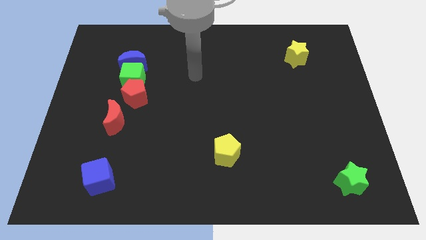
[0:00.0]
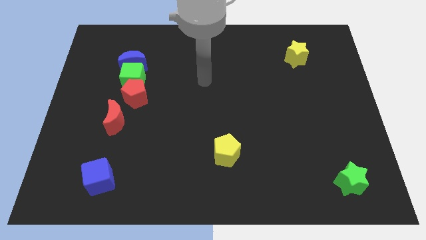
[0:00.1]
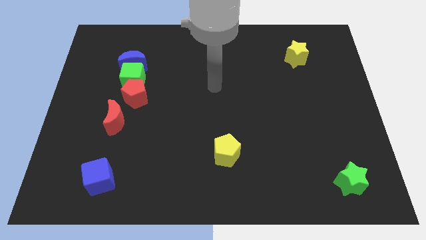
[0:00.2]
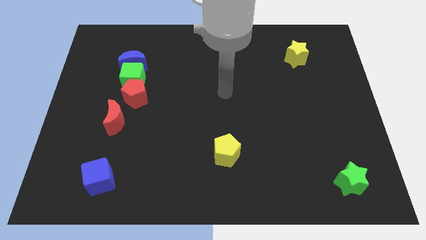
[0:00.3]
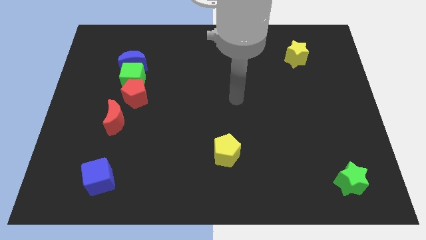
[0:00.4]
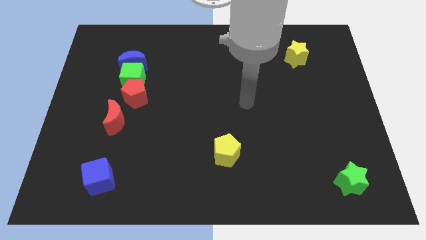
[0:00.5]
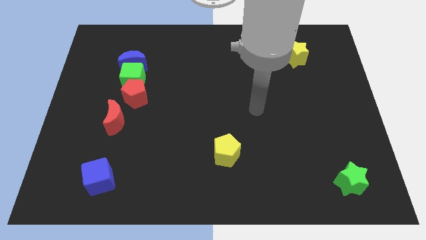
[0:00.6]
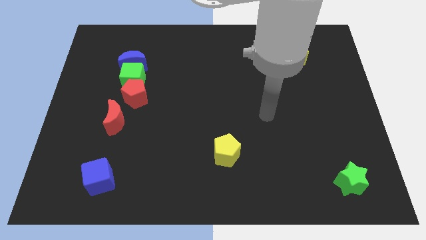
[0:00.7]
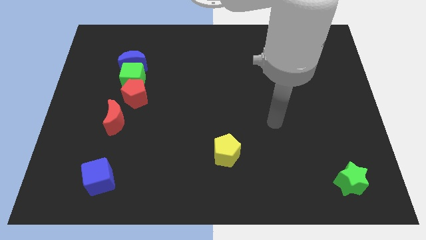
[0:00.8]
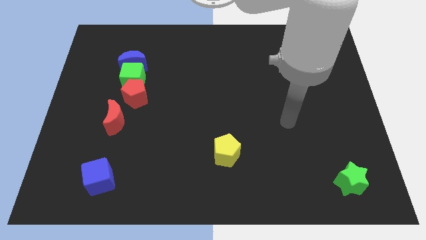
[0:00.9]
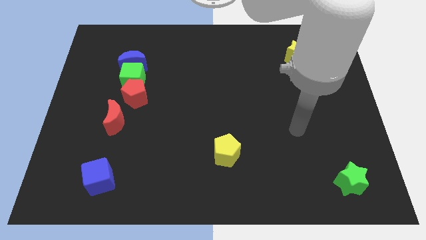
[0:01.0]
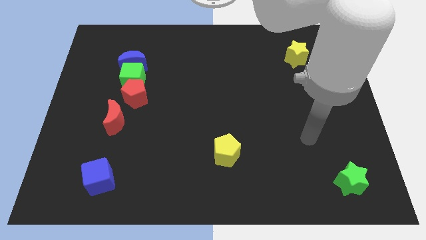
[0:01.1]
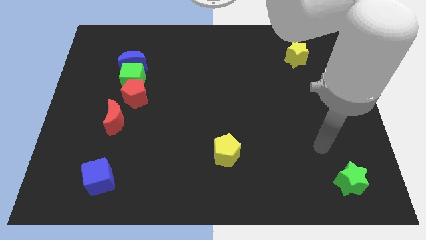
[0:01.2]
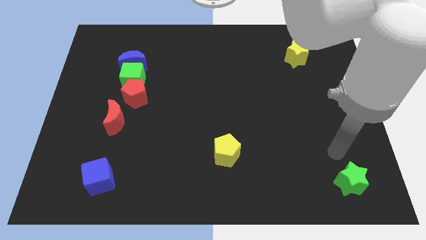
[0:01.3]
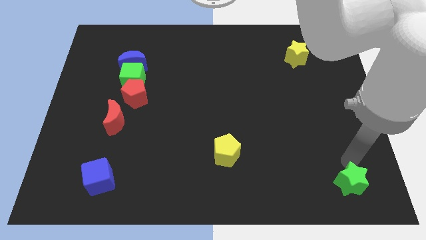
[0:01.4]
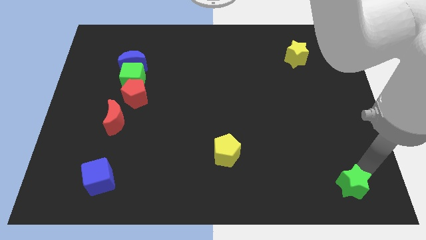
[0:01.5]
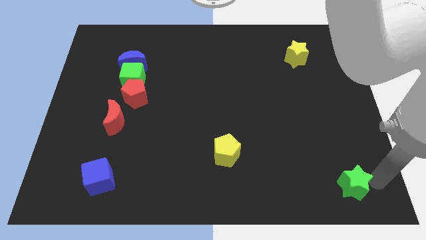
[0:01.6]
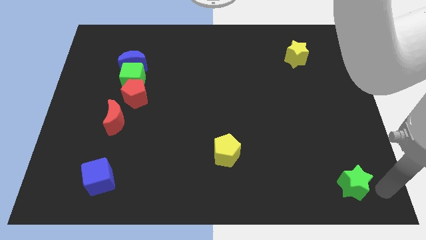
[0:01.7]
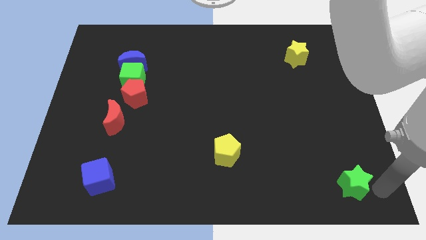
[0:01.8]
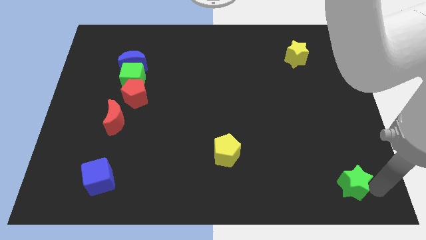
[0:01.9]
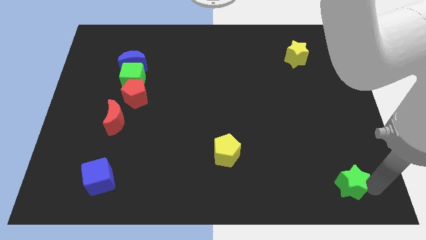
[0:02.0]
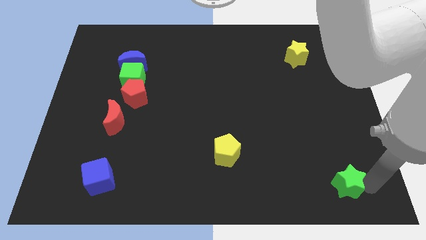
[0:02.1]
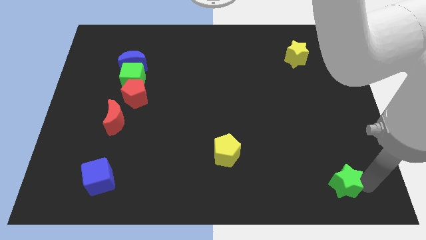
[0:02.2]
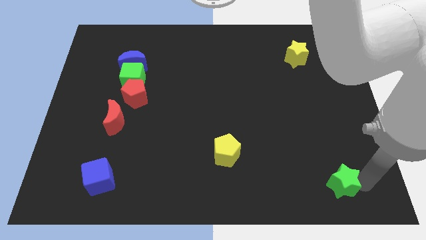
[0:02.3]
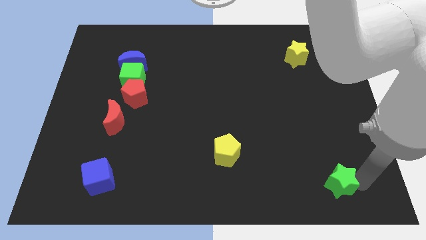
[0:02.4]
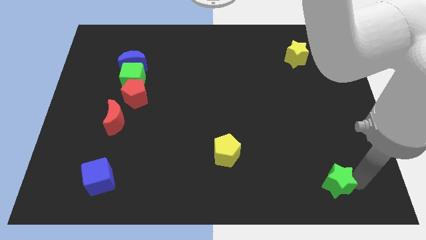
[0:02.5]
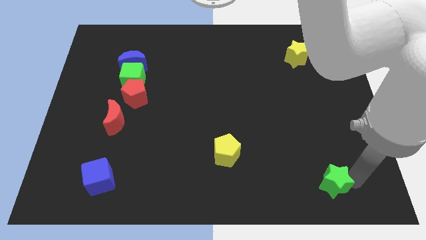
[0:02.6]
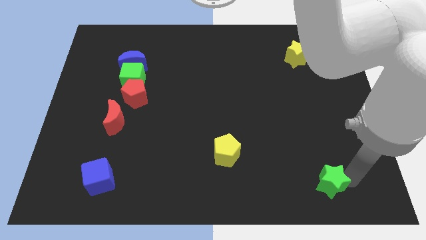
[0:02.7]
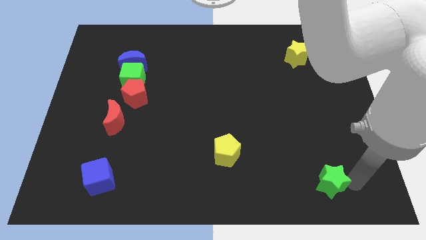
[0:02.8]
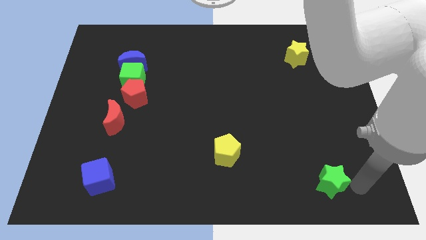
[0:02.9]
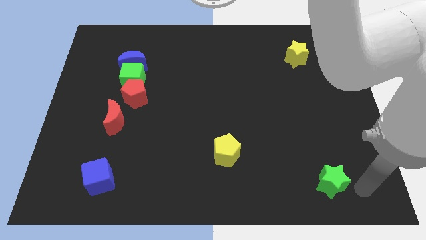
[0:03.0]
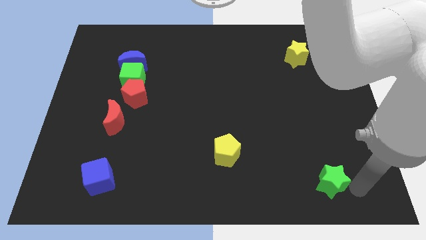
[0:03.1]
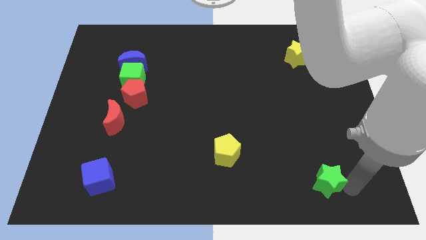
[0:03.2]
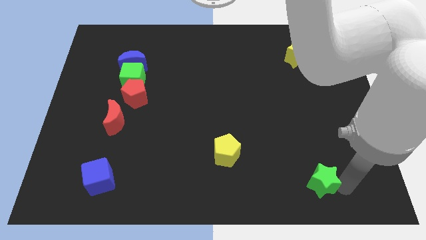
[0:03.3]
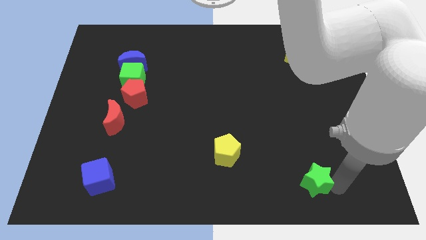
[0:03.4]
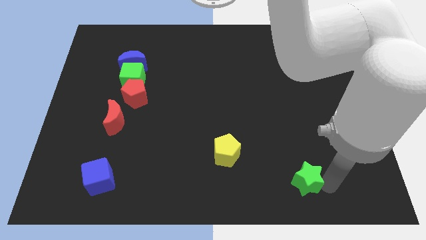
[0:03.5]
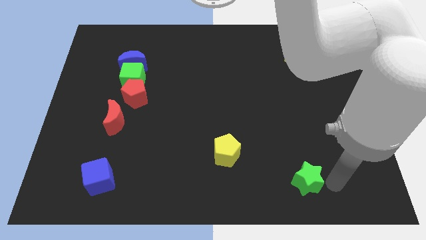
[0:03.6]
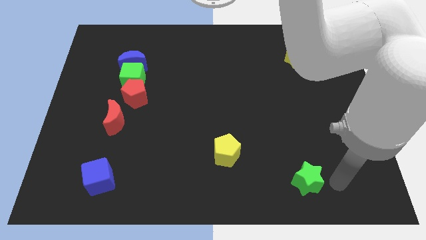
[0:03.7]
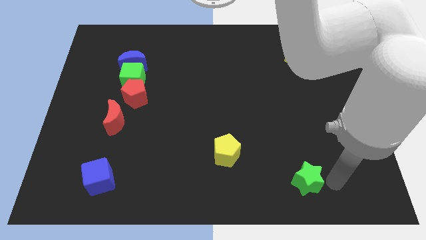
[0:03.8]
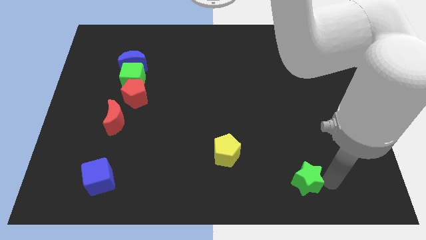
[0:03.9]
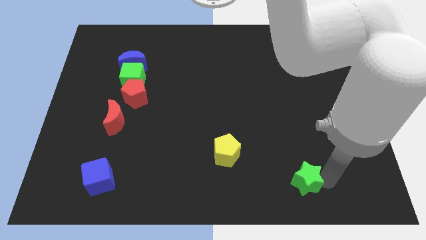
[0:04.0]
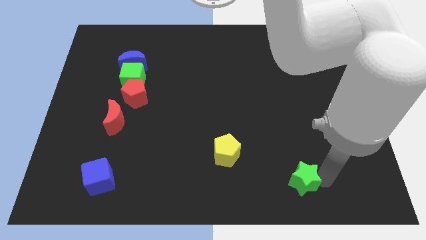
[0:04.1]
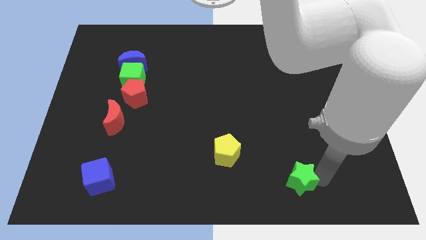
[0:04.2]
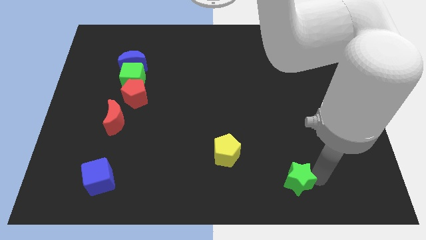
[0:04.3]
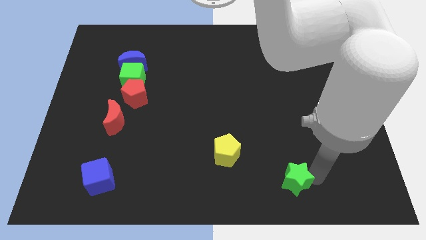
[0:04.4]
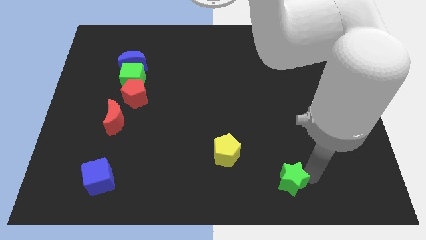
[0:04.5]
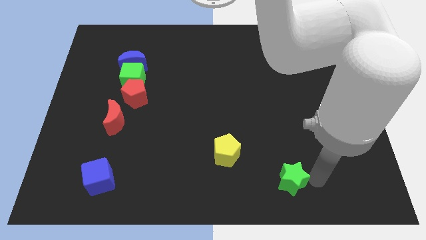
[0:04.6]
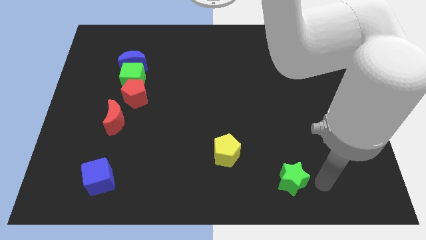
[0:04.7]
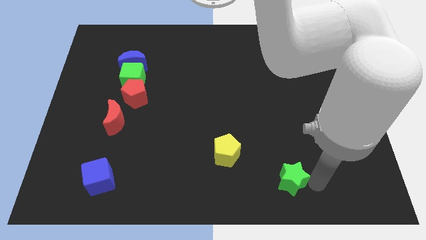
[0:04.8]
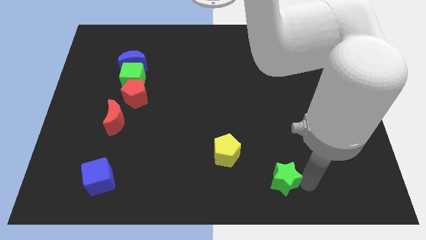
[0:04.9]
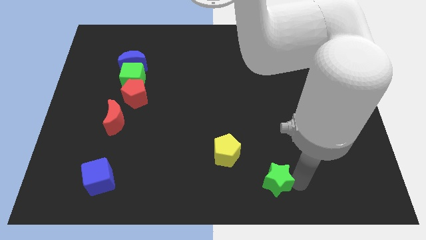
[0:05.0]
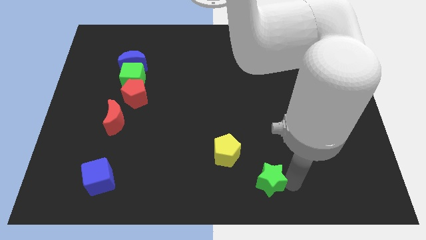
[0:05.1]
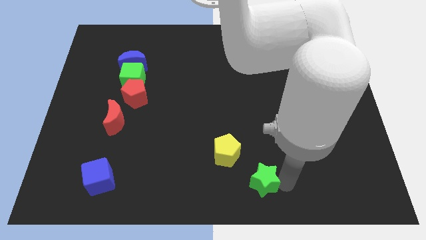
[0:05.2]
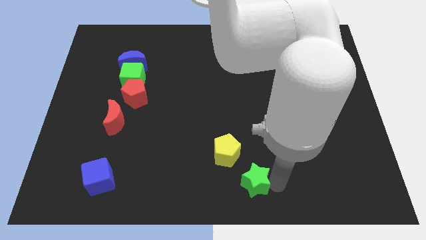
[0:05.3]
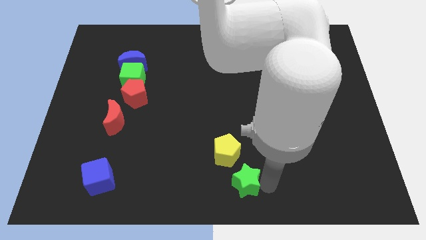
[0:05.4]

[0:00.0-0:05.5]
push the green star to the left

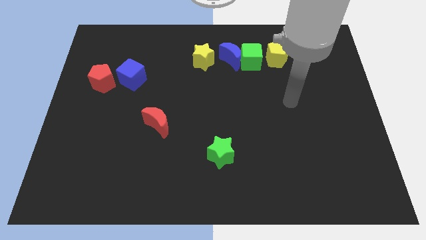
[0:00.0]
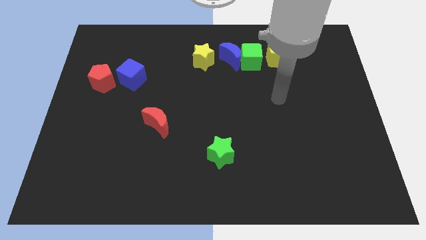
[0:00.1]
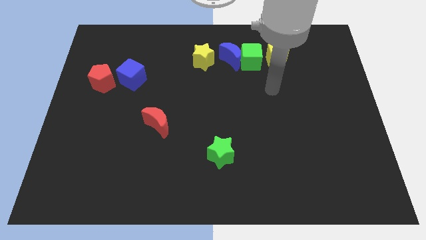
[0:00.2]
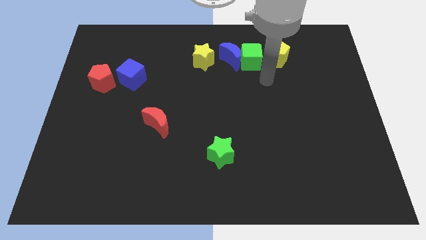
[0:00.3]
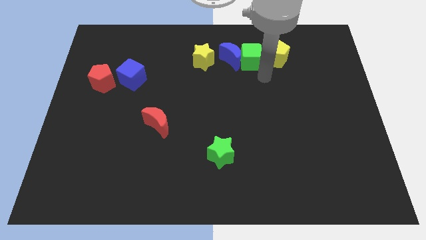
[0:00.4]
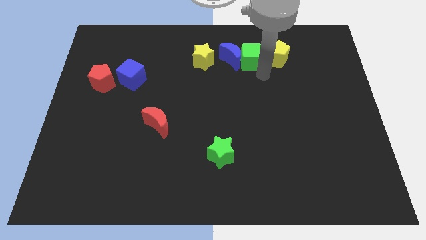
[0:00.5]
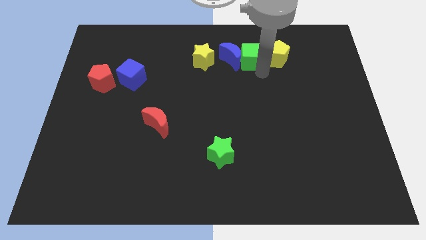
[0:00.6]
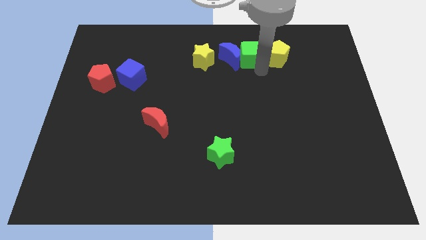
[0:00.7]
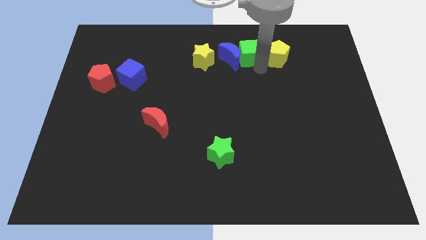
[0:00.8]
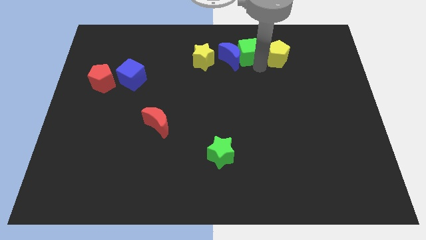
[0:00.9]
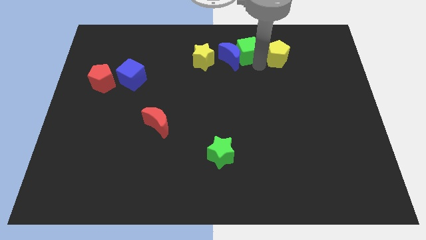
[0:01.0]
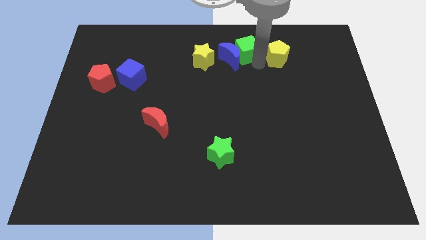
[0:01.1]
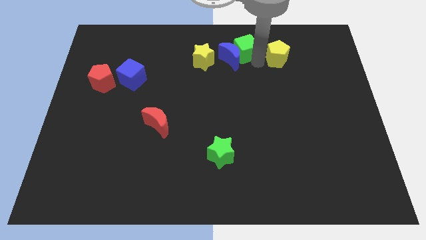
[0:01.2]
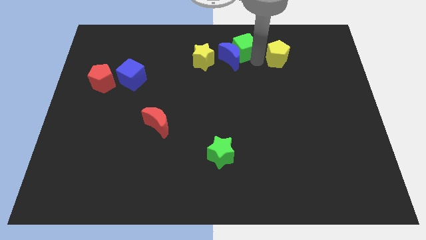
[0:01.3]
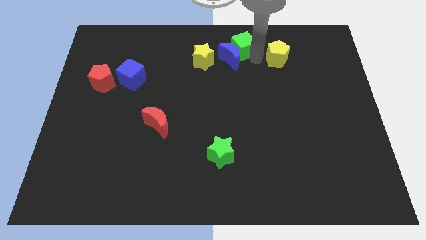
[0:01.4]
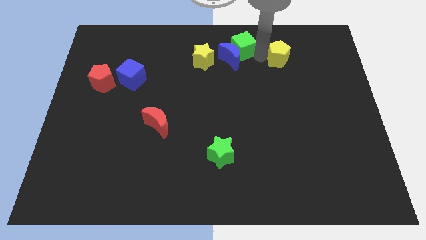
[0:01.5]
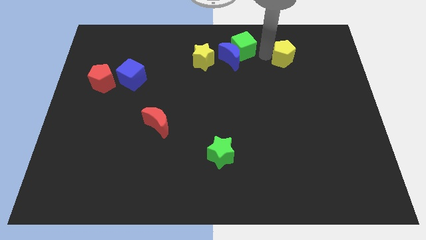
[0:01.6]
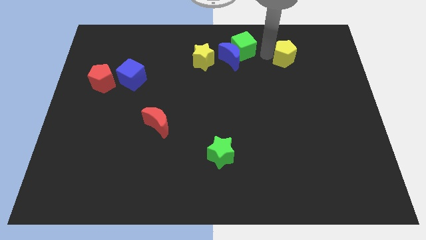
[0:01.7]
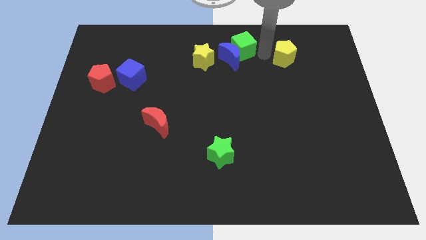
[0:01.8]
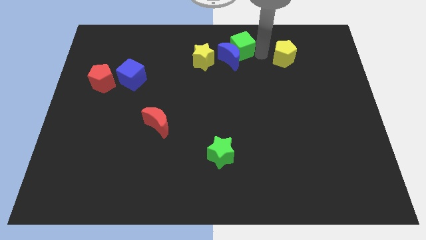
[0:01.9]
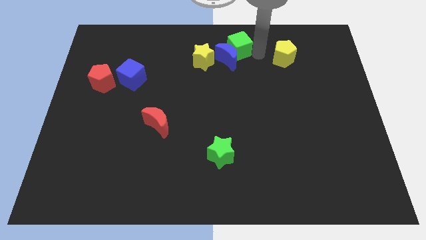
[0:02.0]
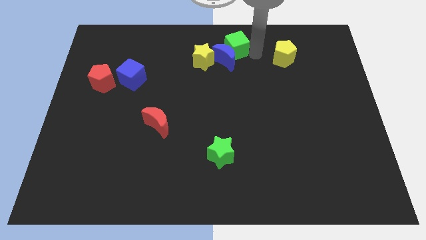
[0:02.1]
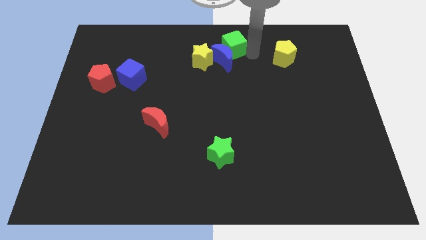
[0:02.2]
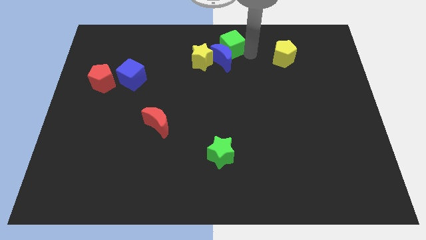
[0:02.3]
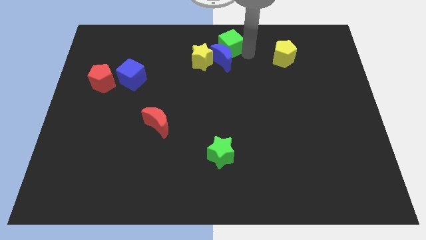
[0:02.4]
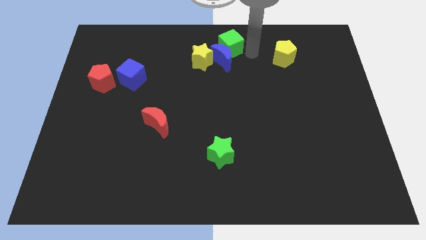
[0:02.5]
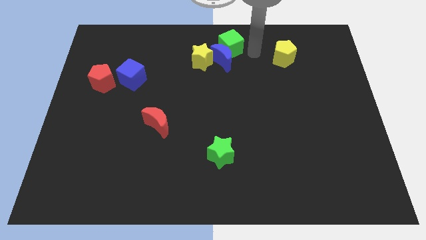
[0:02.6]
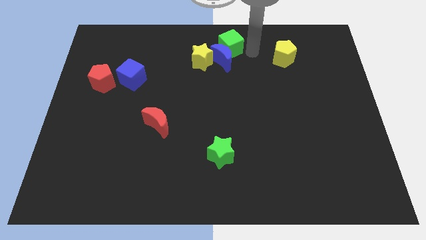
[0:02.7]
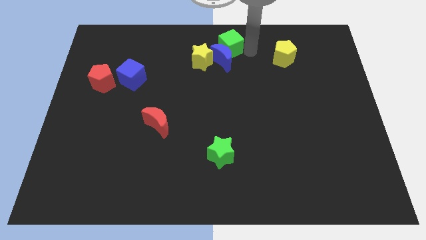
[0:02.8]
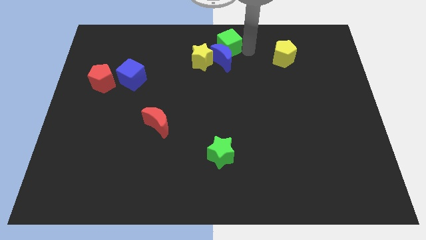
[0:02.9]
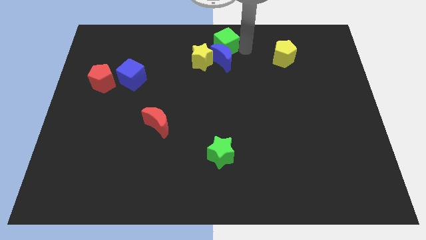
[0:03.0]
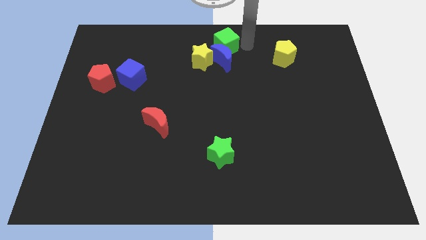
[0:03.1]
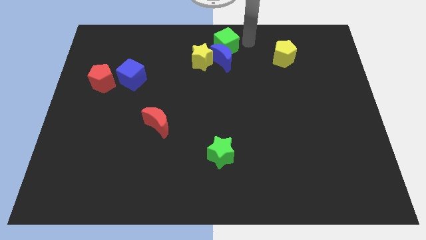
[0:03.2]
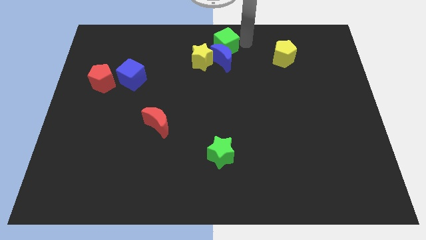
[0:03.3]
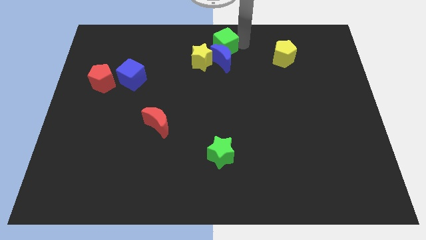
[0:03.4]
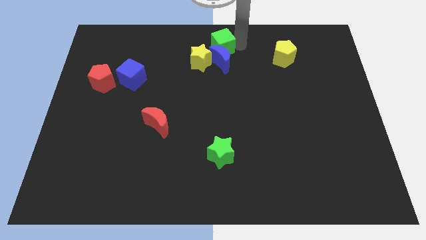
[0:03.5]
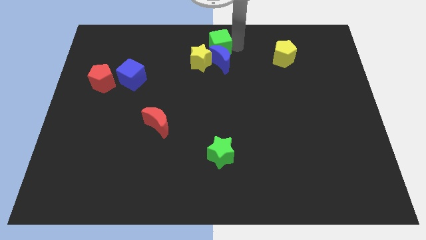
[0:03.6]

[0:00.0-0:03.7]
slightly move the green cube left
